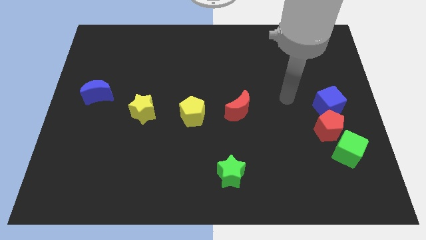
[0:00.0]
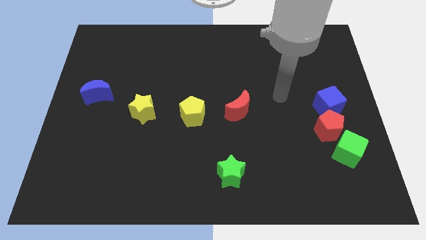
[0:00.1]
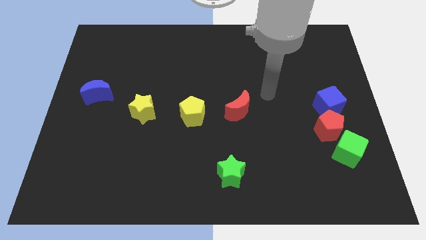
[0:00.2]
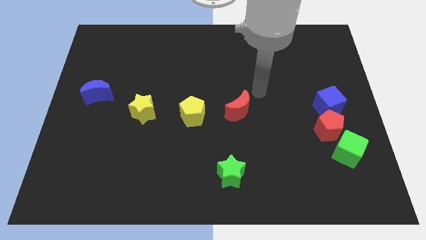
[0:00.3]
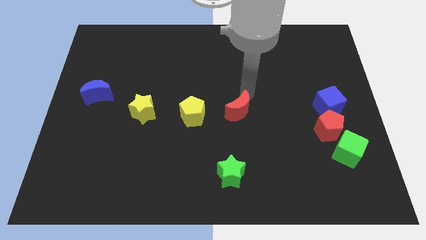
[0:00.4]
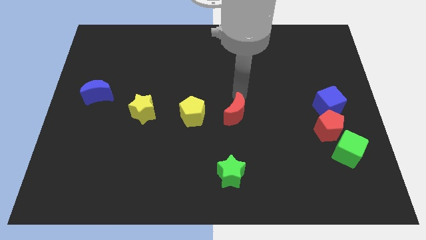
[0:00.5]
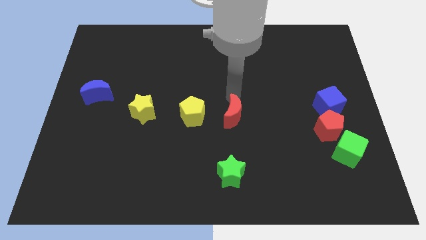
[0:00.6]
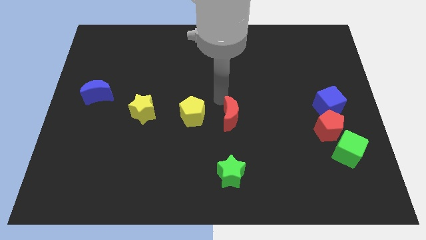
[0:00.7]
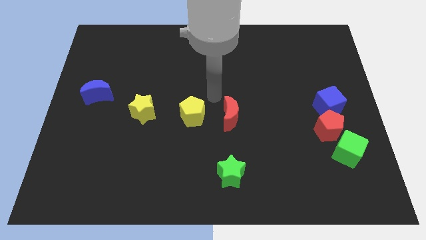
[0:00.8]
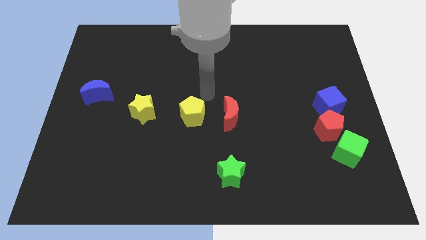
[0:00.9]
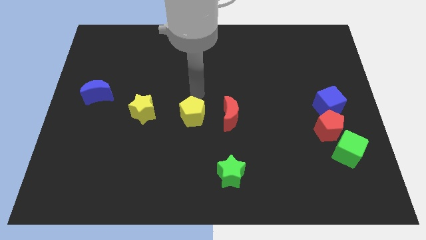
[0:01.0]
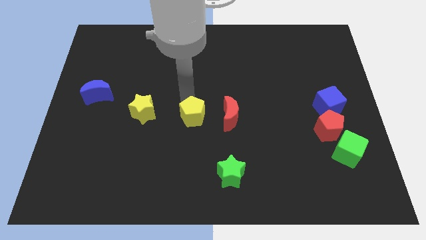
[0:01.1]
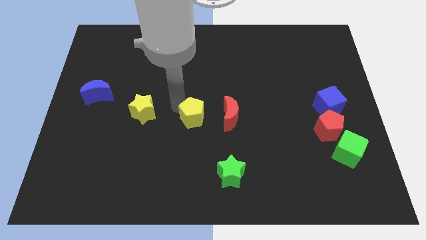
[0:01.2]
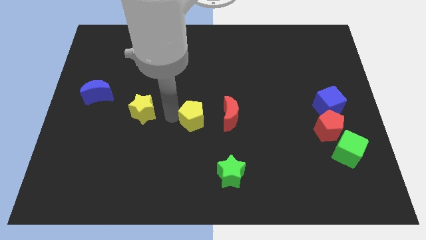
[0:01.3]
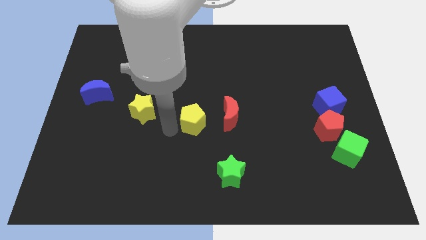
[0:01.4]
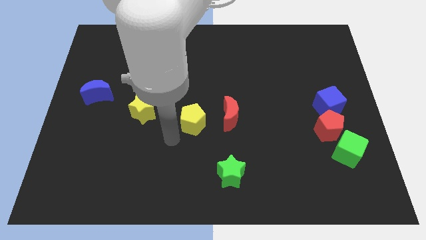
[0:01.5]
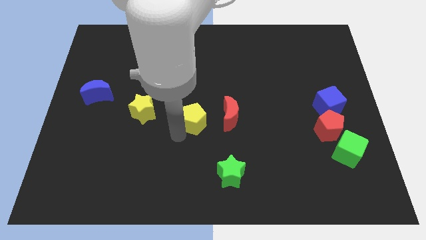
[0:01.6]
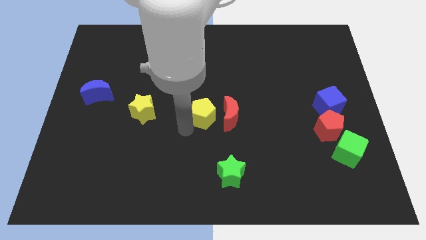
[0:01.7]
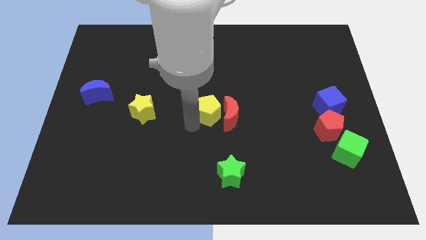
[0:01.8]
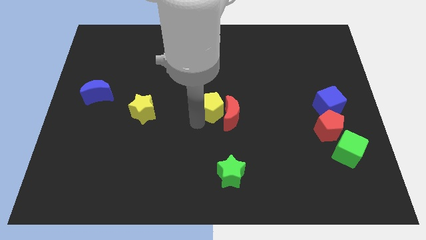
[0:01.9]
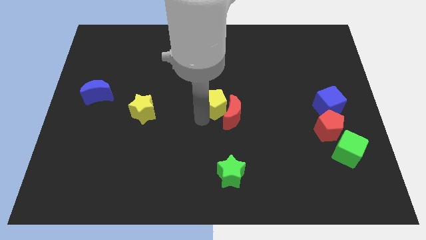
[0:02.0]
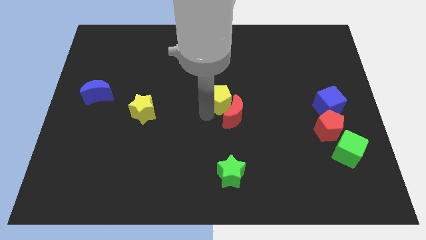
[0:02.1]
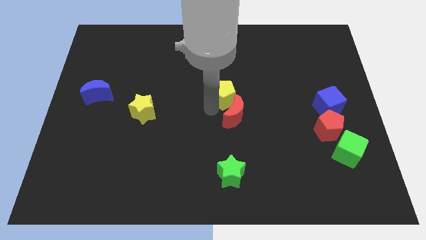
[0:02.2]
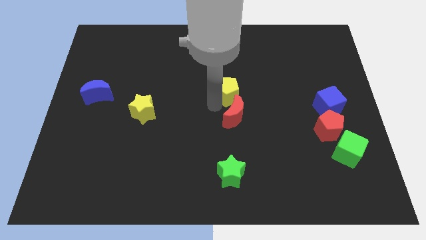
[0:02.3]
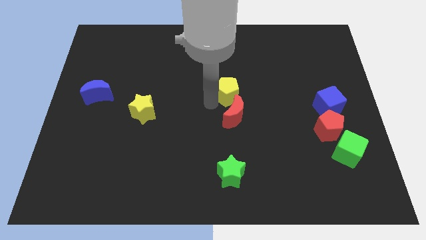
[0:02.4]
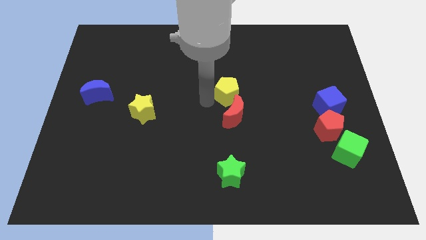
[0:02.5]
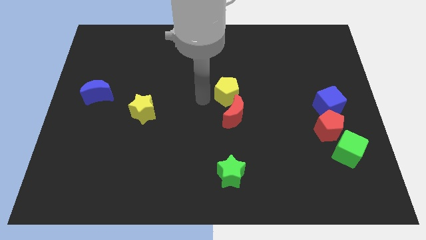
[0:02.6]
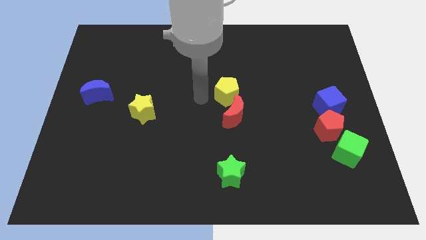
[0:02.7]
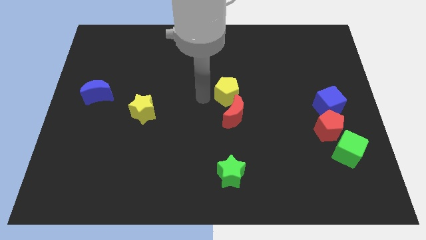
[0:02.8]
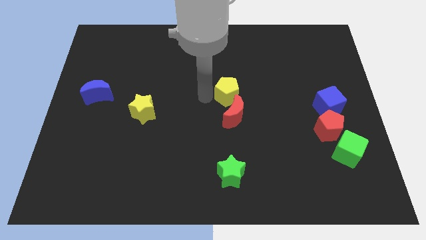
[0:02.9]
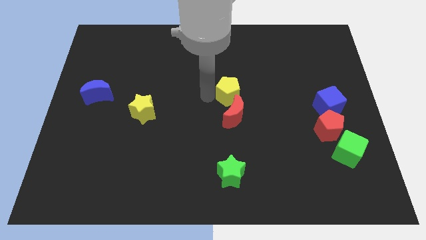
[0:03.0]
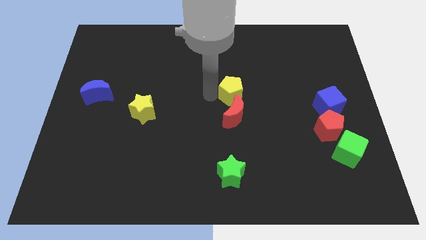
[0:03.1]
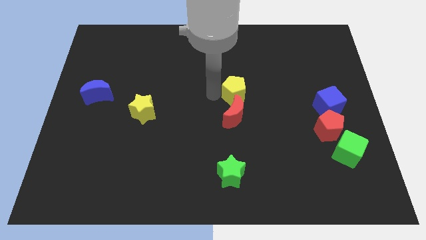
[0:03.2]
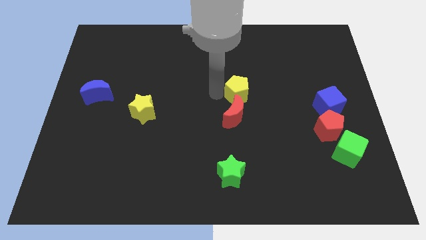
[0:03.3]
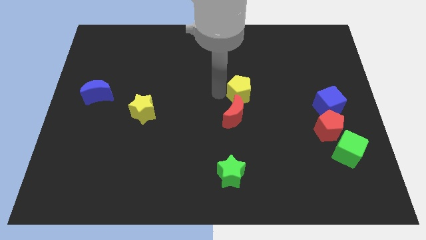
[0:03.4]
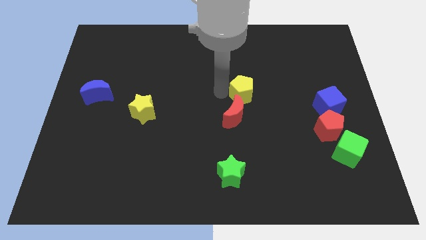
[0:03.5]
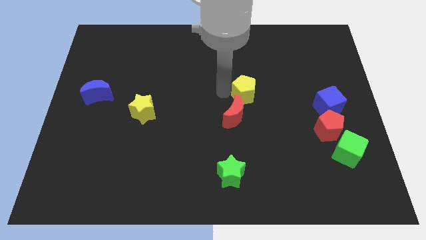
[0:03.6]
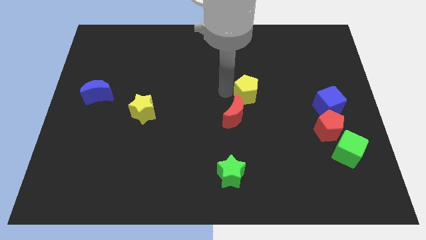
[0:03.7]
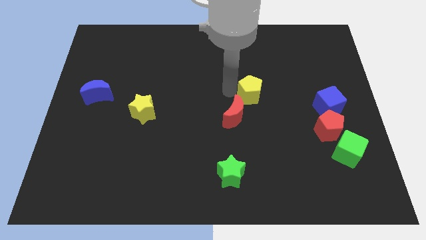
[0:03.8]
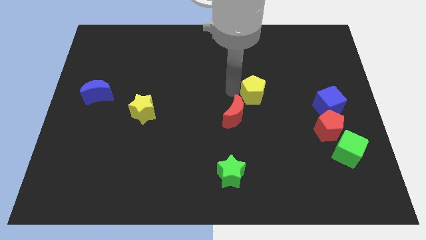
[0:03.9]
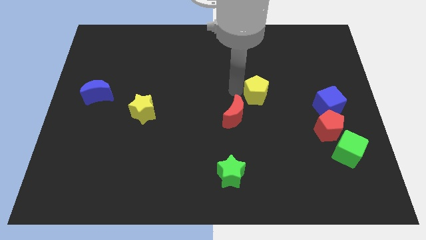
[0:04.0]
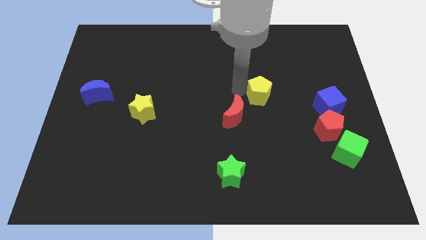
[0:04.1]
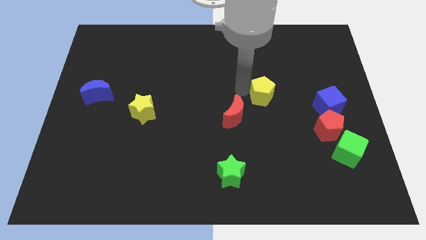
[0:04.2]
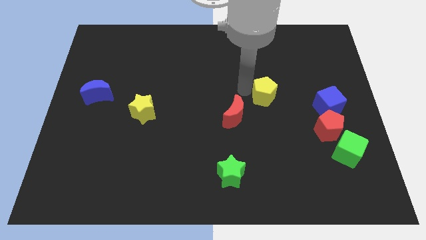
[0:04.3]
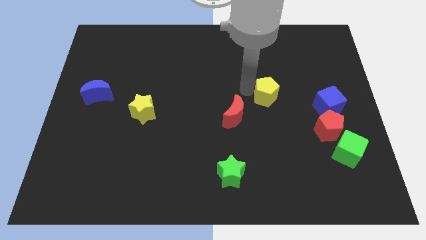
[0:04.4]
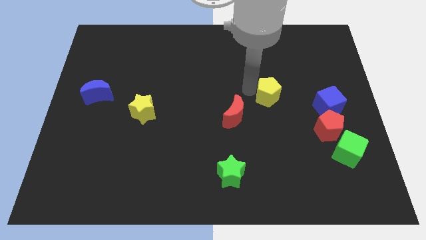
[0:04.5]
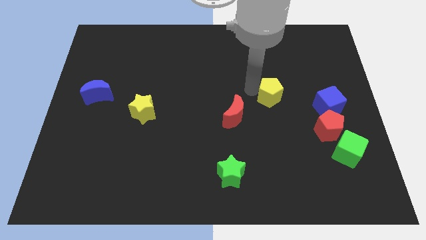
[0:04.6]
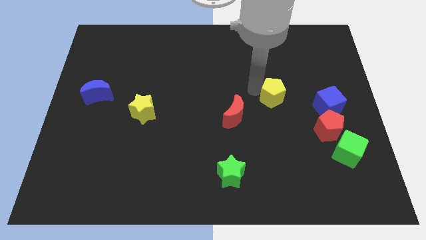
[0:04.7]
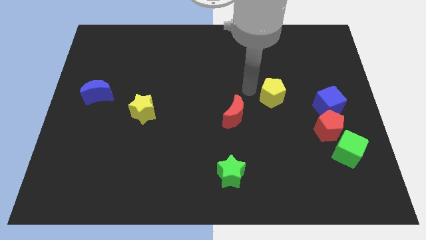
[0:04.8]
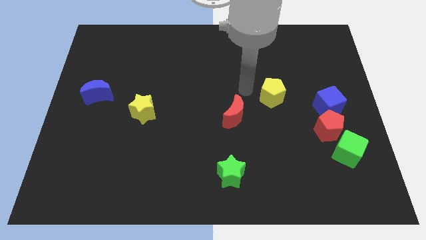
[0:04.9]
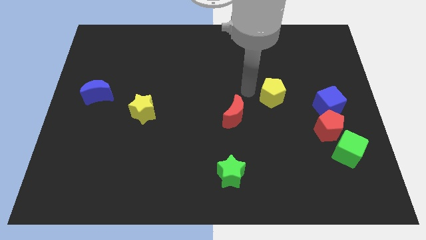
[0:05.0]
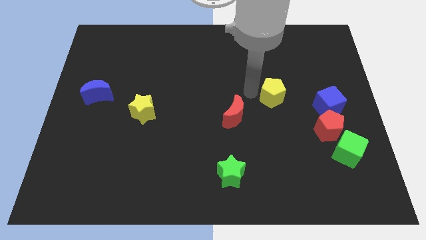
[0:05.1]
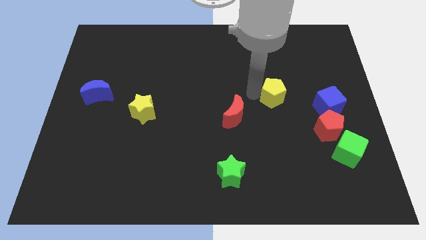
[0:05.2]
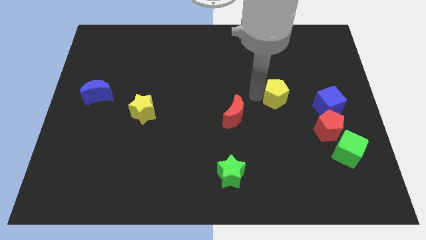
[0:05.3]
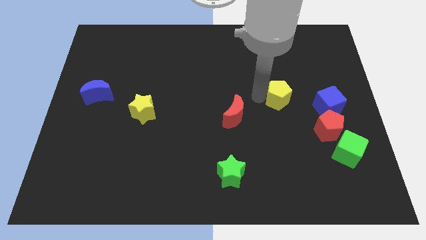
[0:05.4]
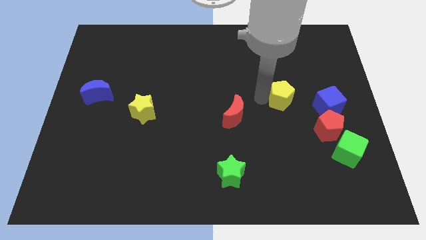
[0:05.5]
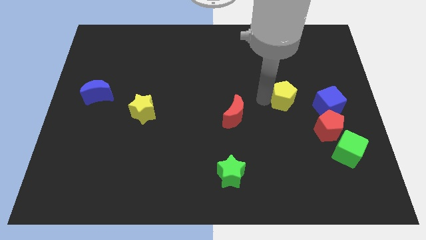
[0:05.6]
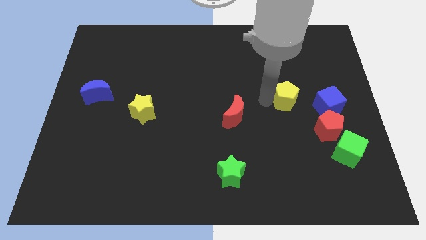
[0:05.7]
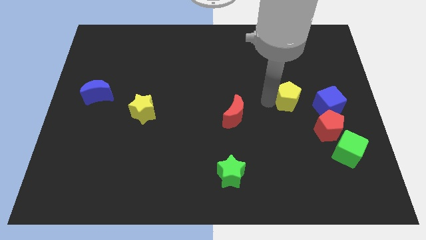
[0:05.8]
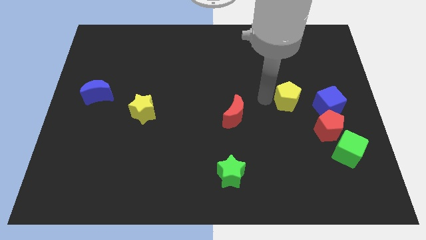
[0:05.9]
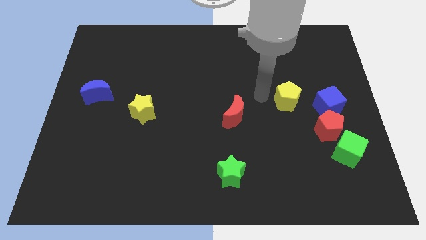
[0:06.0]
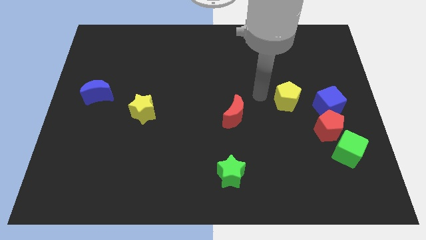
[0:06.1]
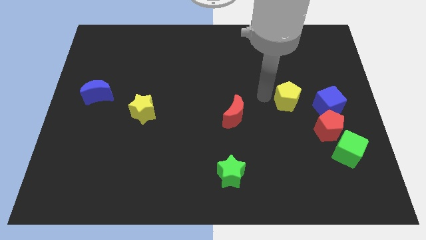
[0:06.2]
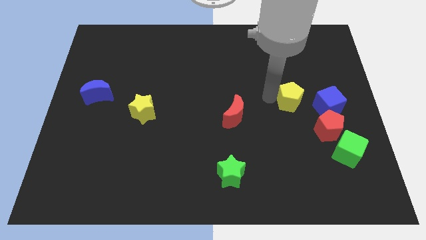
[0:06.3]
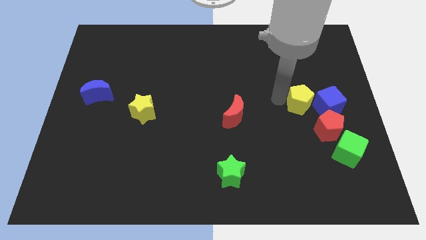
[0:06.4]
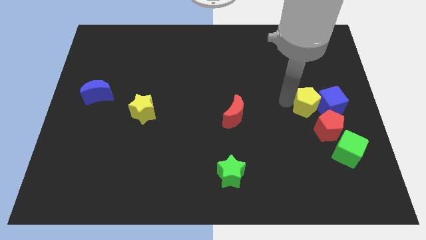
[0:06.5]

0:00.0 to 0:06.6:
put the yellow pentagon next to the blue cube

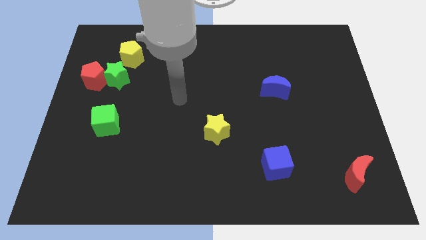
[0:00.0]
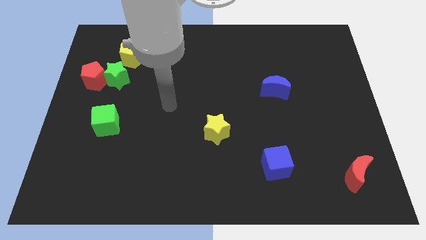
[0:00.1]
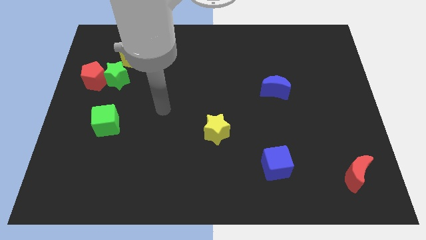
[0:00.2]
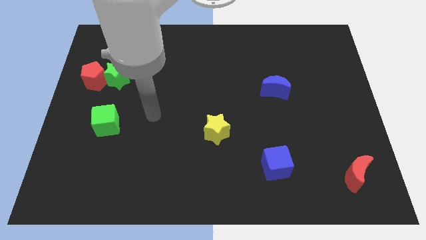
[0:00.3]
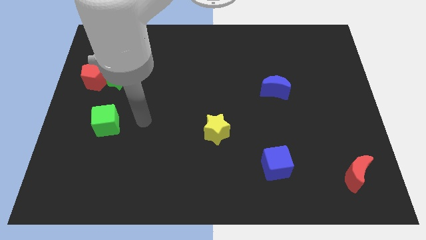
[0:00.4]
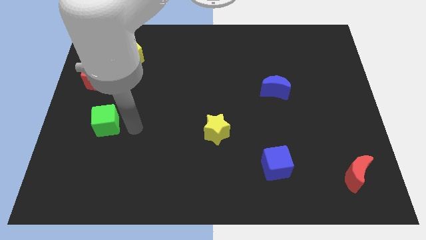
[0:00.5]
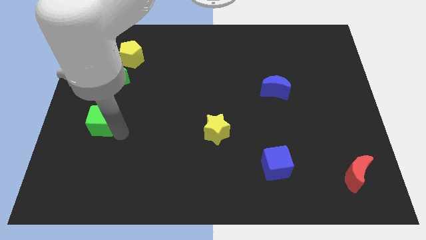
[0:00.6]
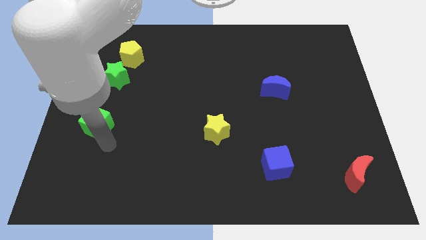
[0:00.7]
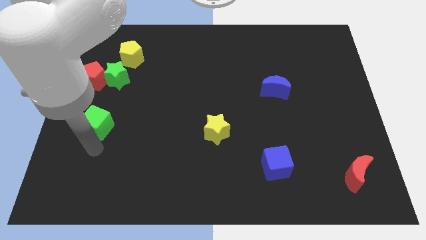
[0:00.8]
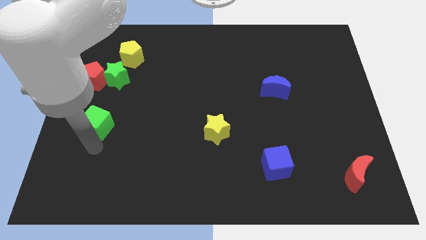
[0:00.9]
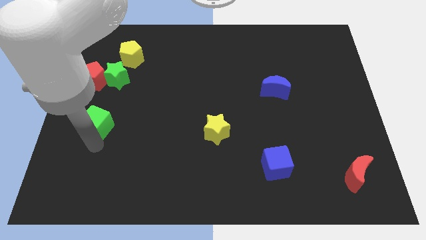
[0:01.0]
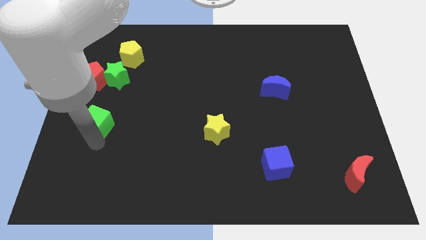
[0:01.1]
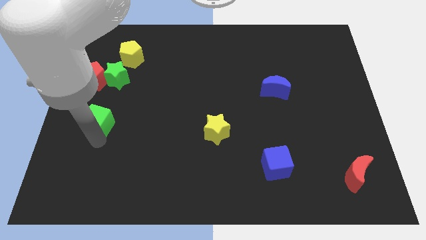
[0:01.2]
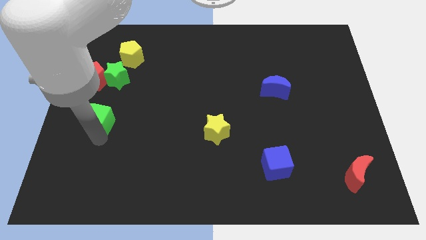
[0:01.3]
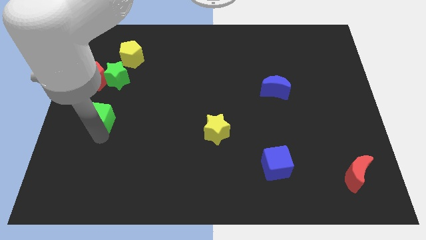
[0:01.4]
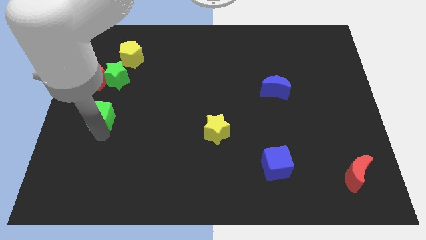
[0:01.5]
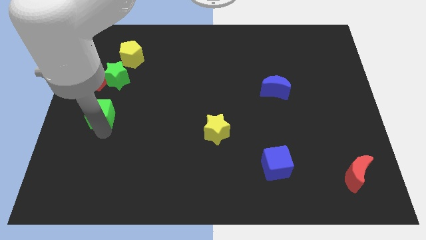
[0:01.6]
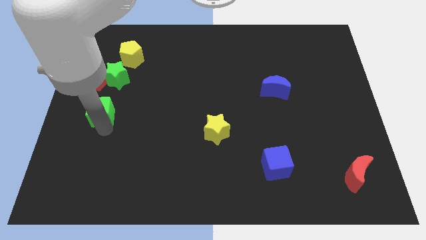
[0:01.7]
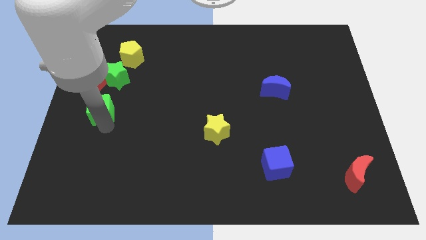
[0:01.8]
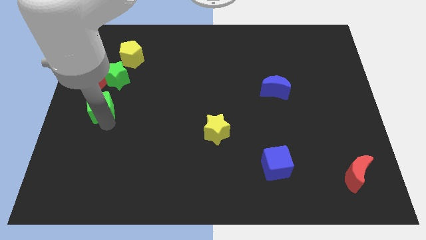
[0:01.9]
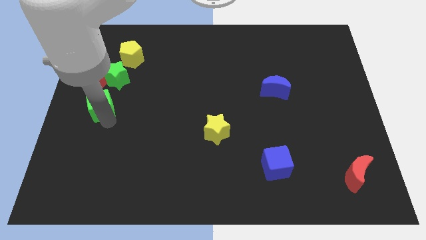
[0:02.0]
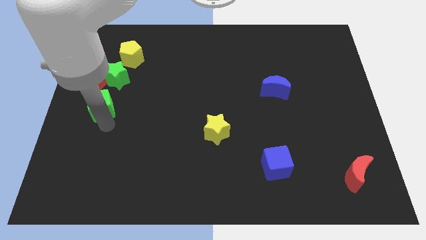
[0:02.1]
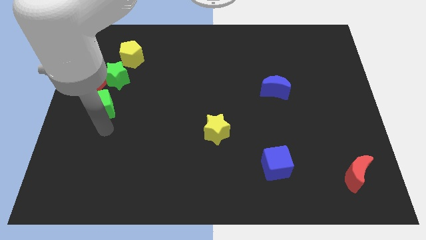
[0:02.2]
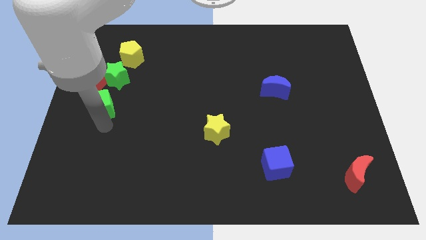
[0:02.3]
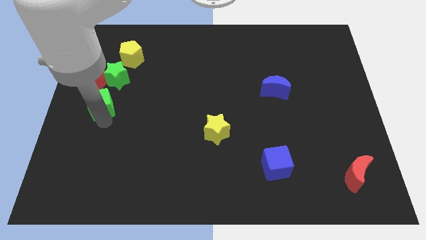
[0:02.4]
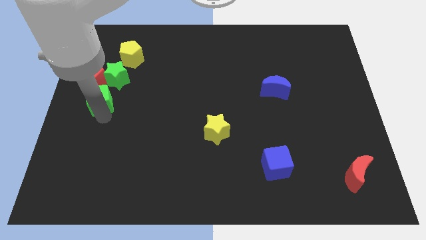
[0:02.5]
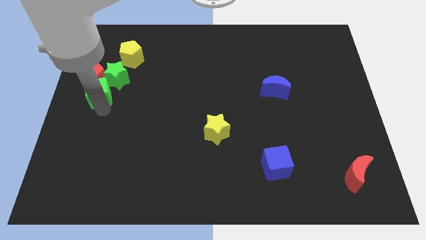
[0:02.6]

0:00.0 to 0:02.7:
slide the green cube close to the red pentagon
